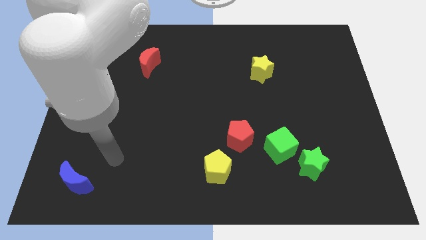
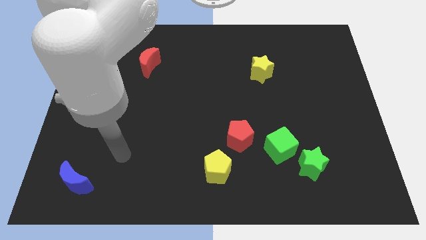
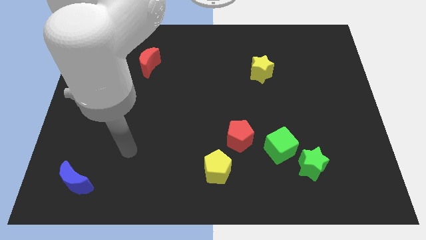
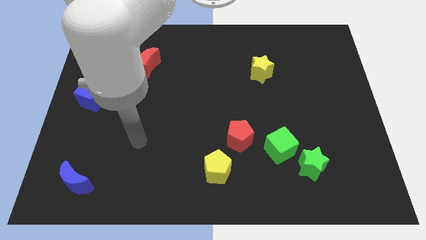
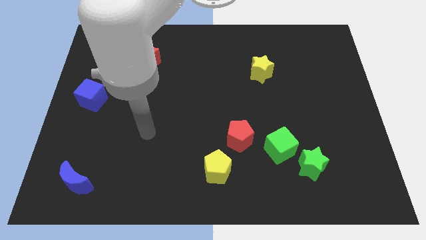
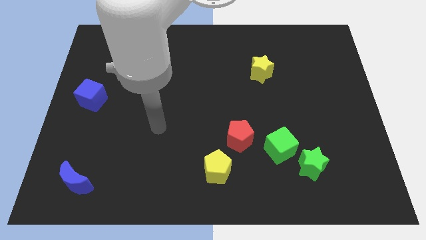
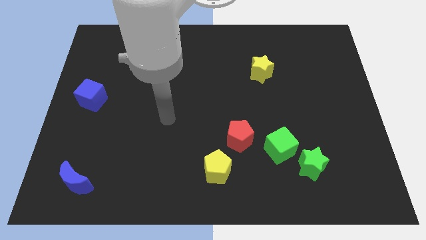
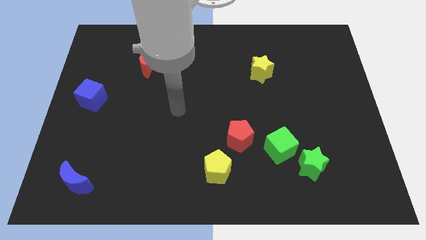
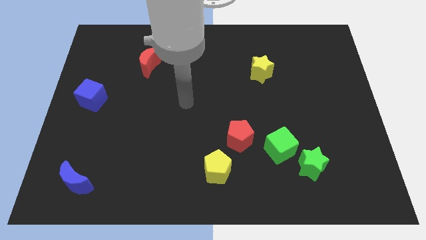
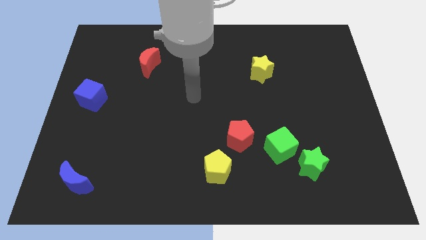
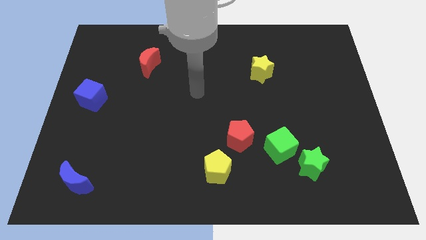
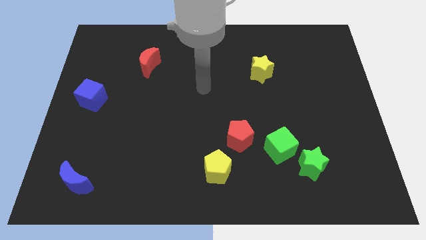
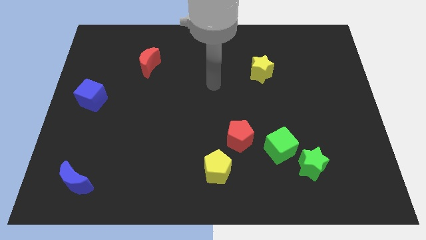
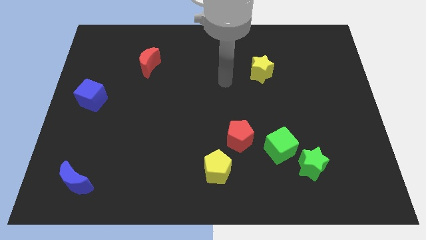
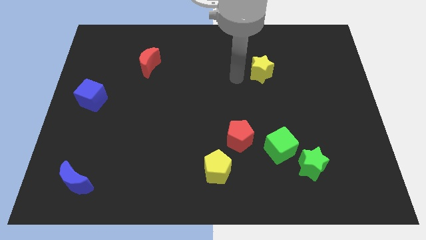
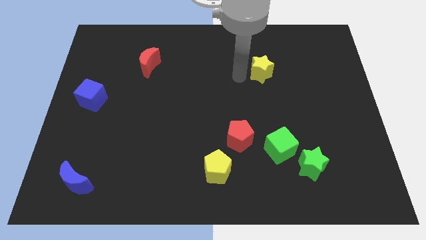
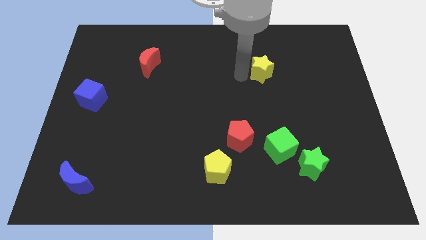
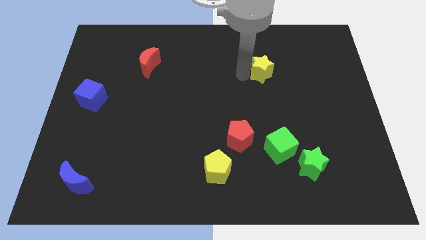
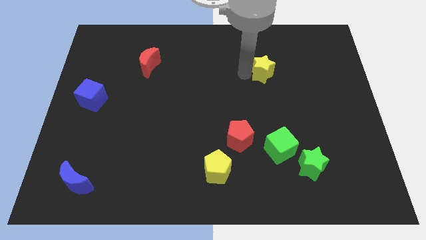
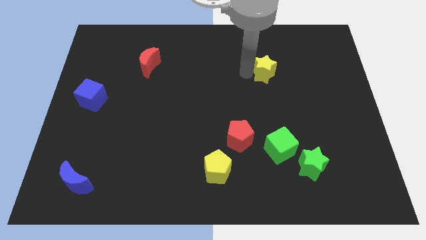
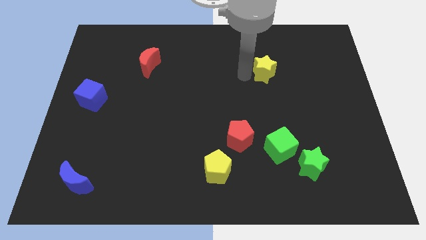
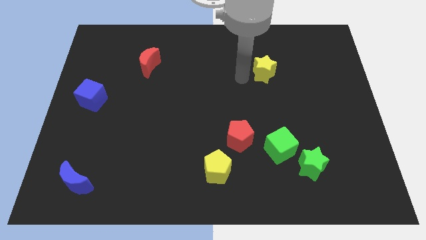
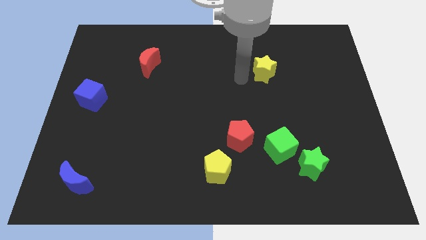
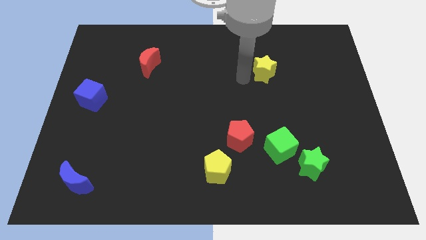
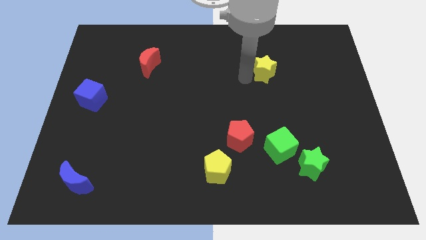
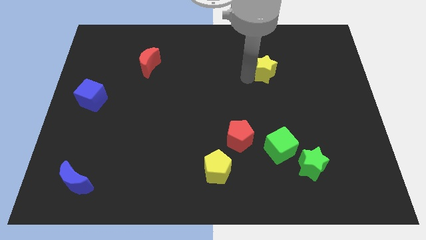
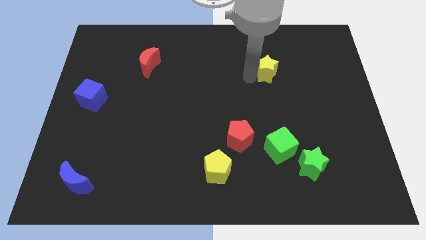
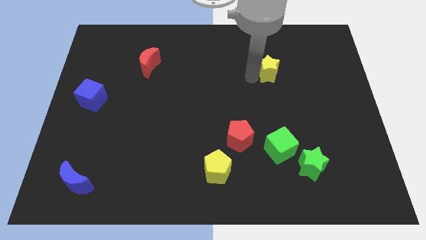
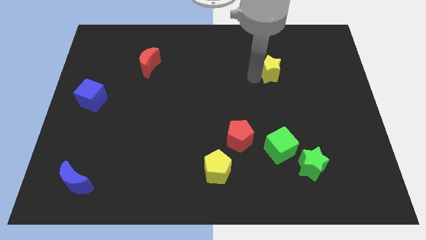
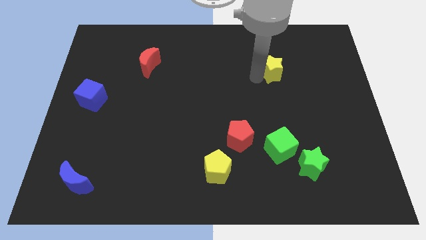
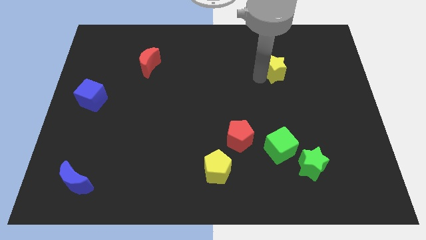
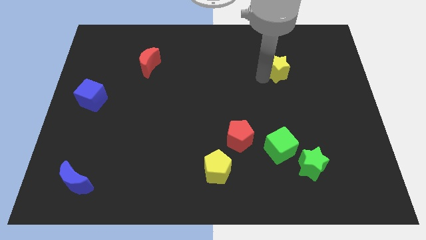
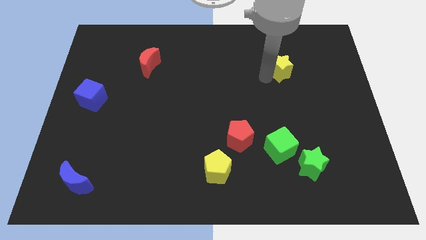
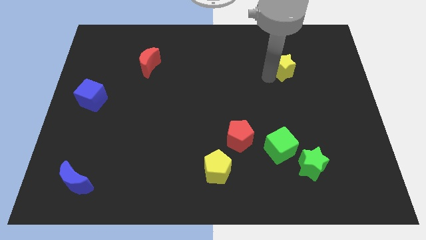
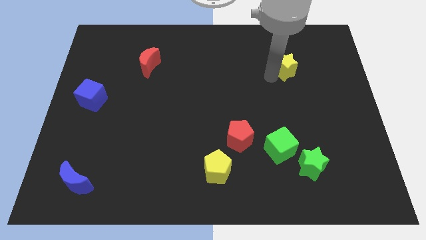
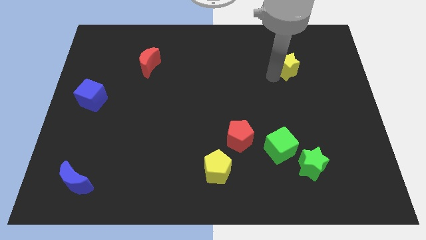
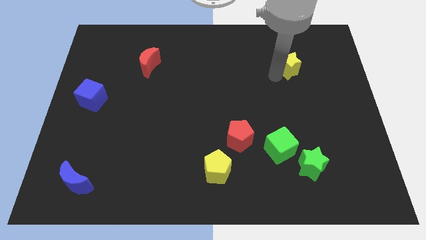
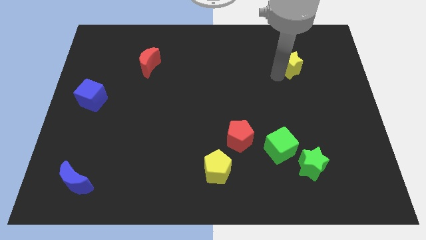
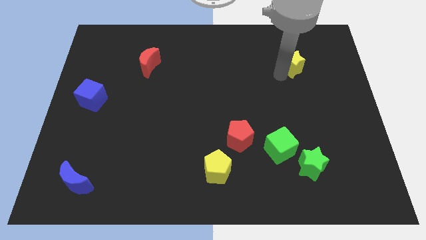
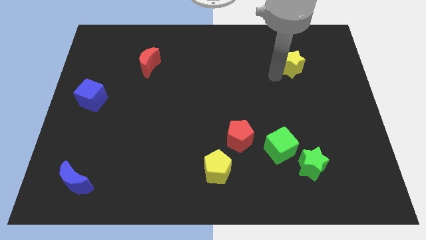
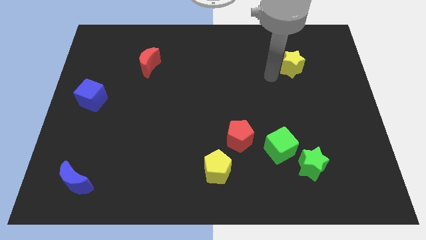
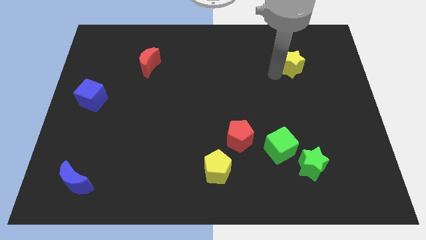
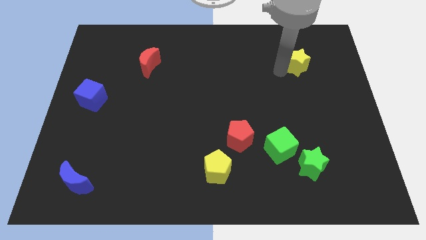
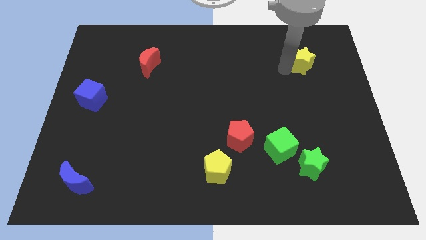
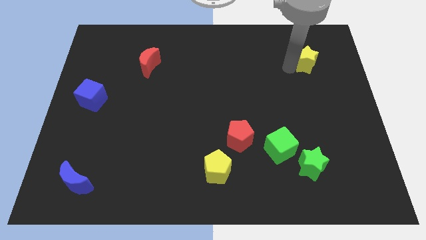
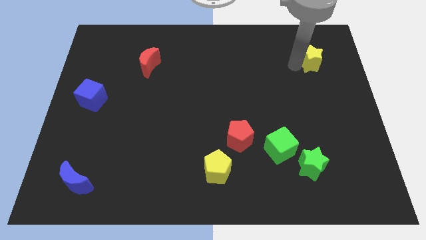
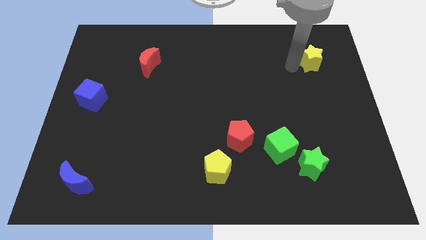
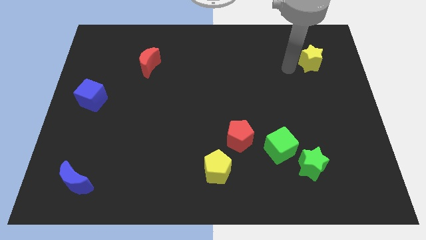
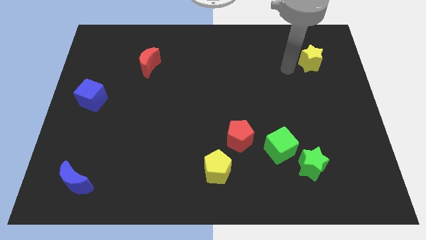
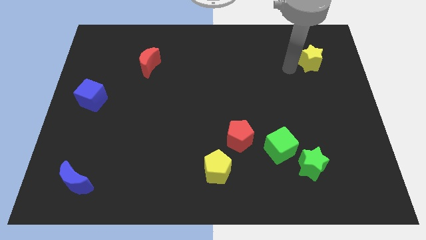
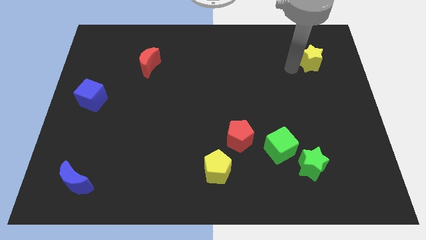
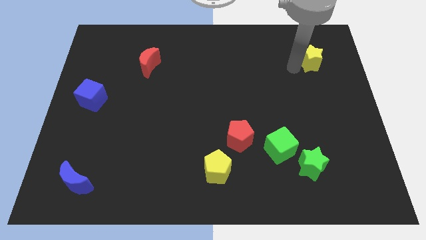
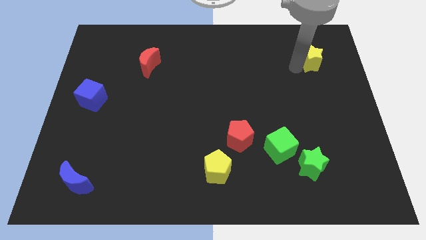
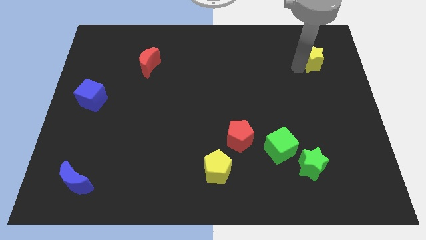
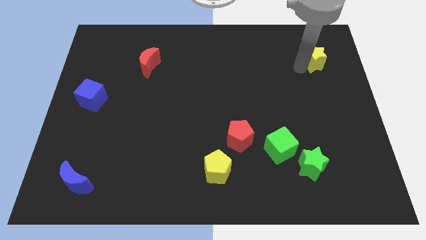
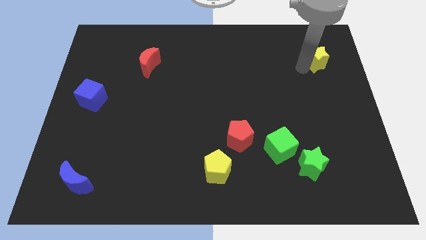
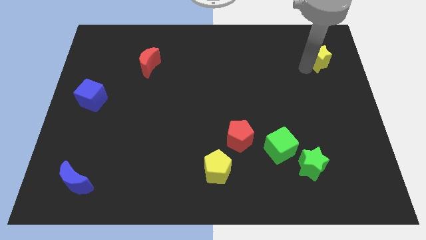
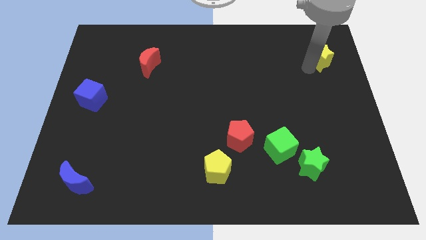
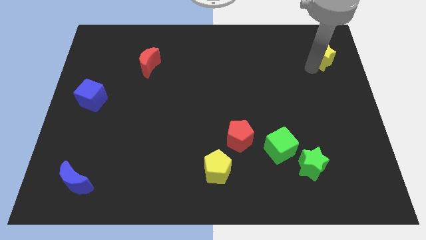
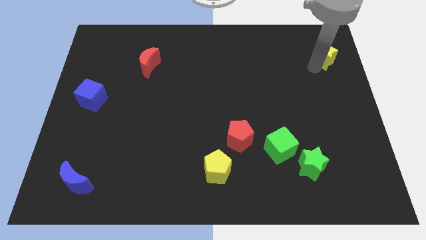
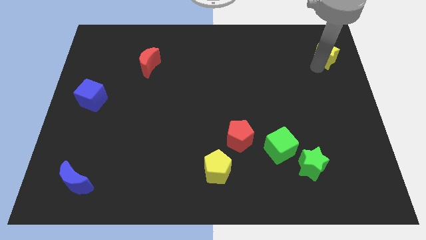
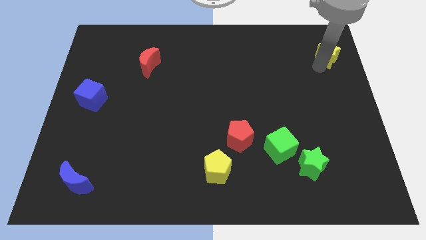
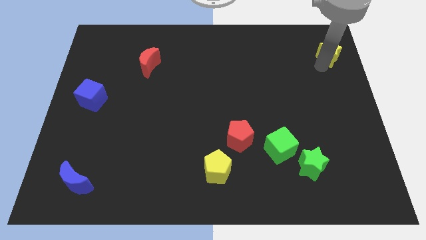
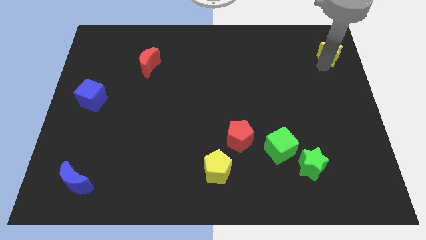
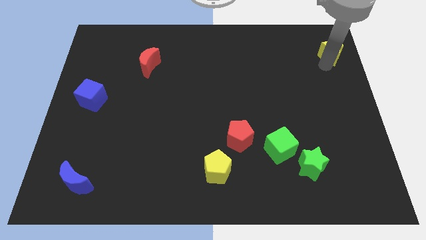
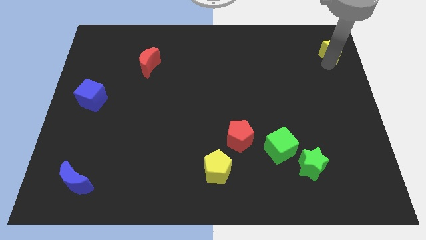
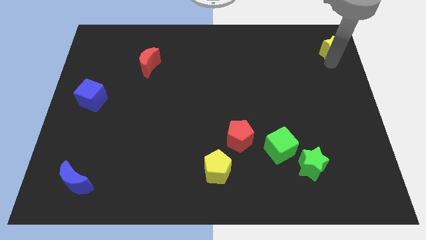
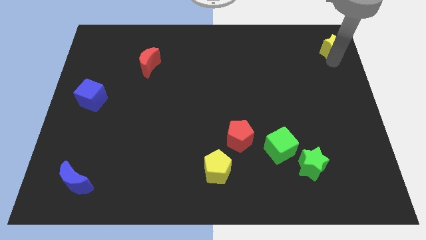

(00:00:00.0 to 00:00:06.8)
push the yellow star to the top right corner
